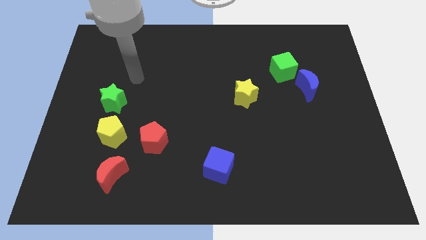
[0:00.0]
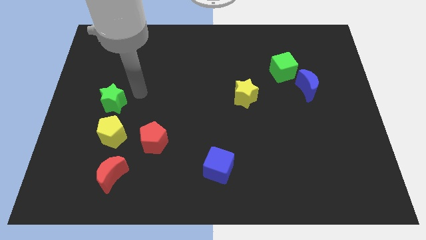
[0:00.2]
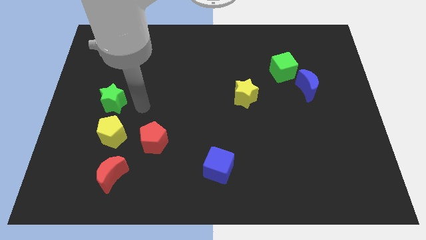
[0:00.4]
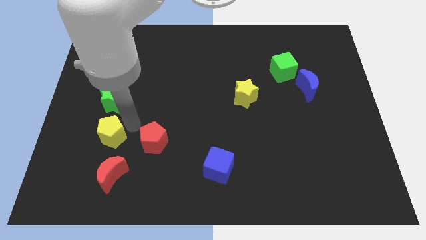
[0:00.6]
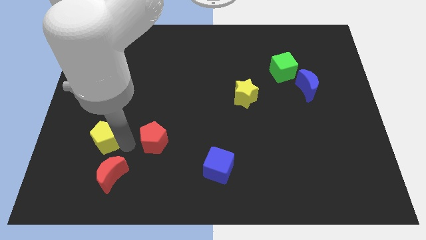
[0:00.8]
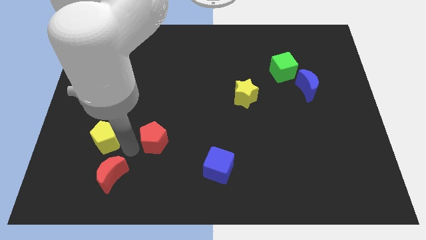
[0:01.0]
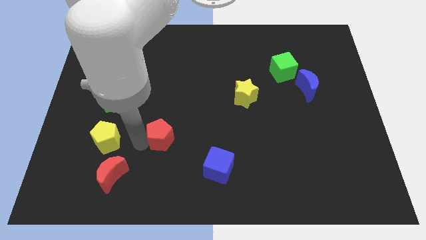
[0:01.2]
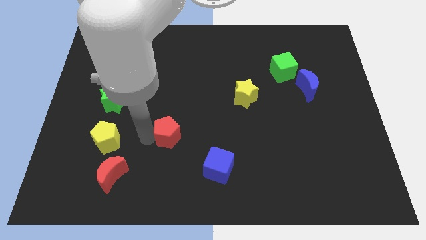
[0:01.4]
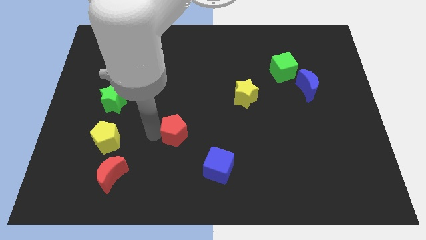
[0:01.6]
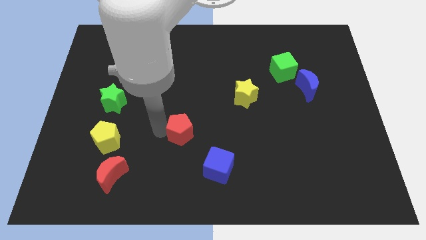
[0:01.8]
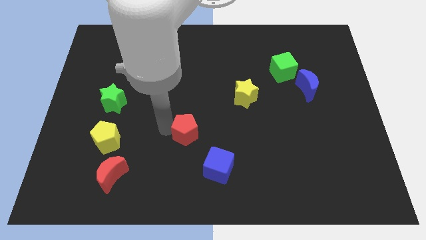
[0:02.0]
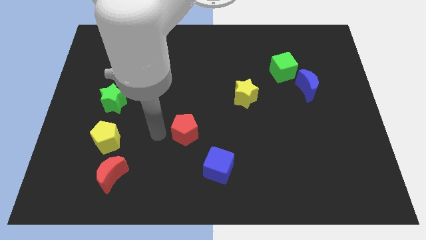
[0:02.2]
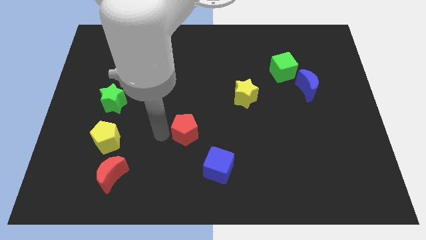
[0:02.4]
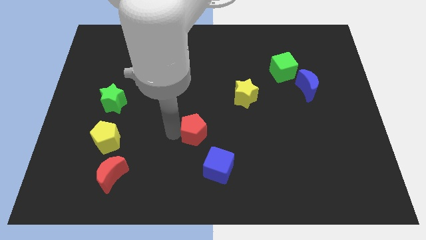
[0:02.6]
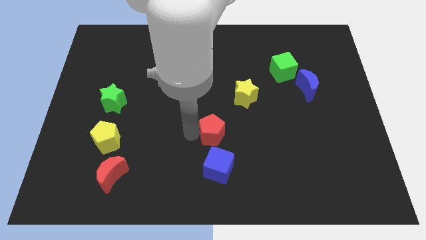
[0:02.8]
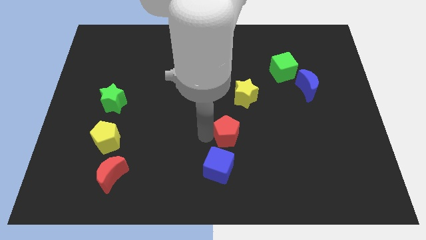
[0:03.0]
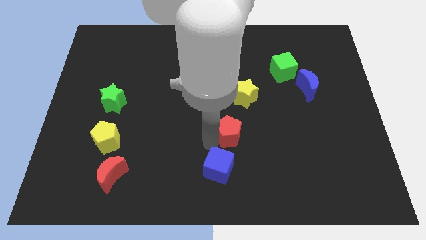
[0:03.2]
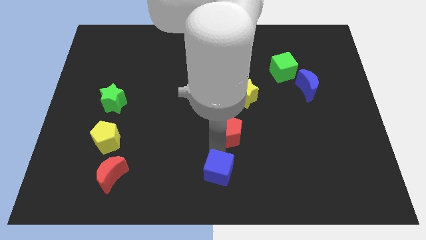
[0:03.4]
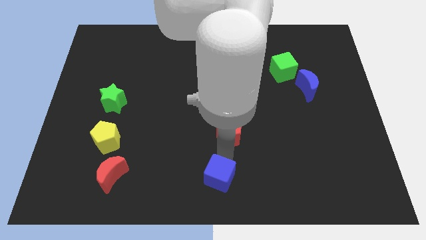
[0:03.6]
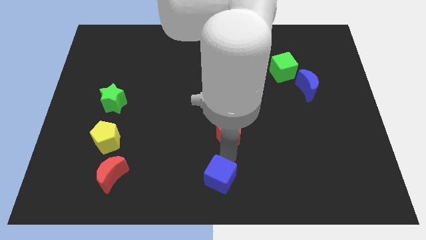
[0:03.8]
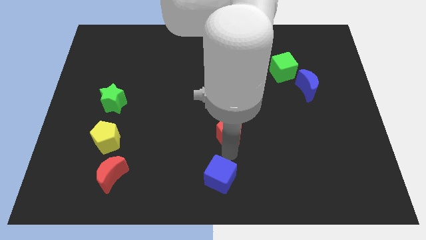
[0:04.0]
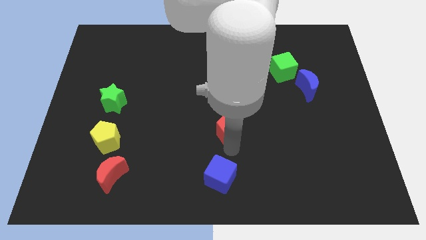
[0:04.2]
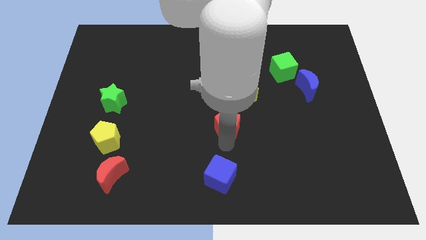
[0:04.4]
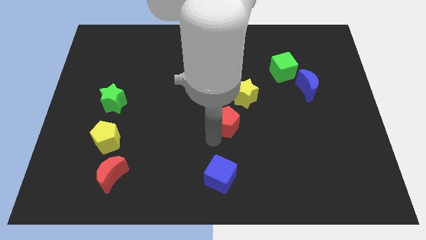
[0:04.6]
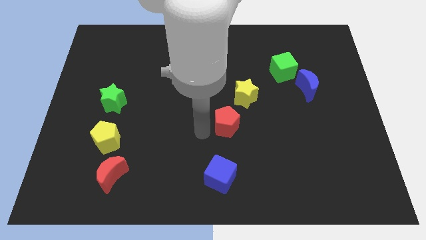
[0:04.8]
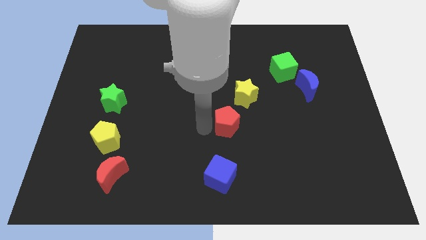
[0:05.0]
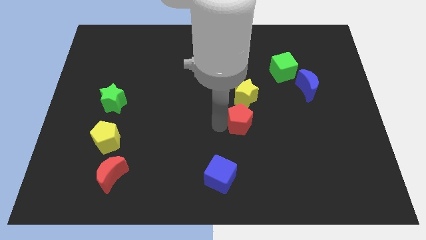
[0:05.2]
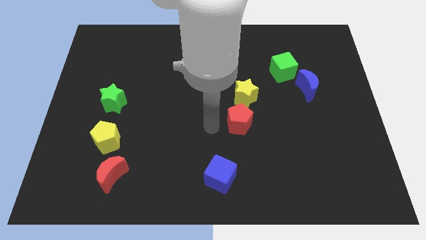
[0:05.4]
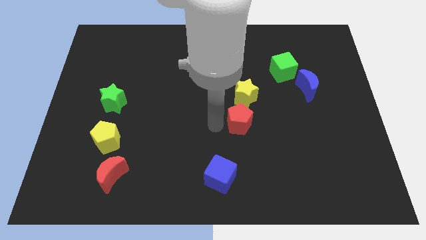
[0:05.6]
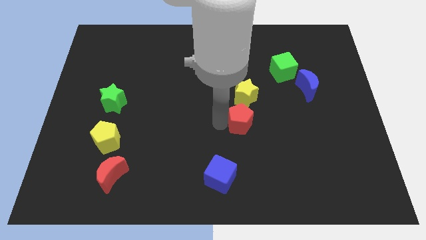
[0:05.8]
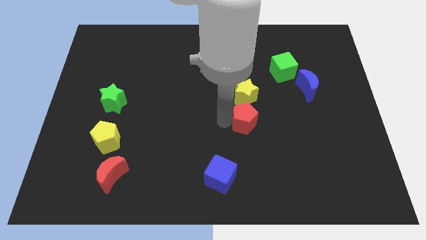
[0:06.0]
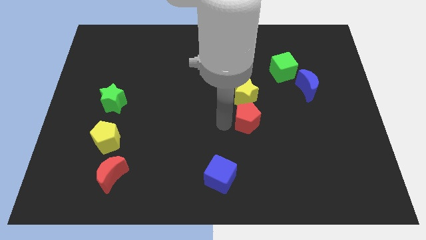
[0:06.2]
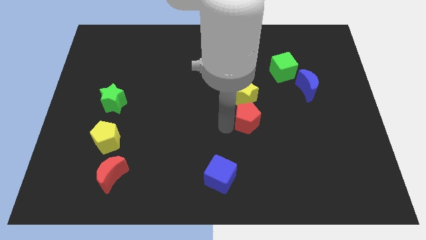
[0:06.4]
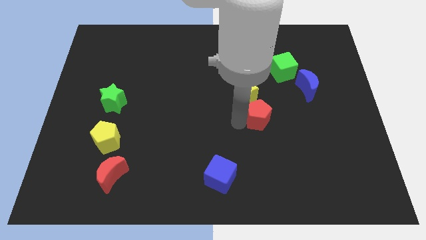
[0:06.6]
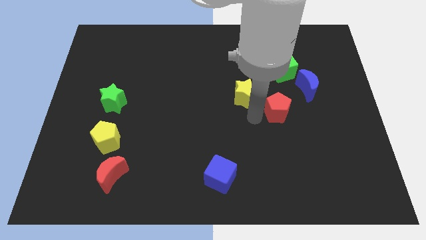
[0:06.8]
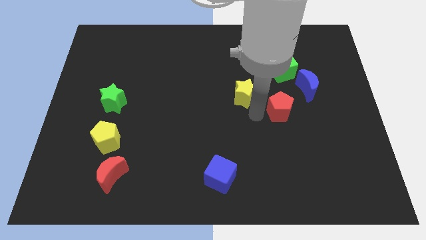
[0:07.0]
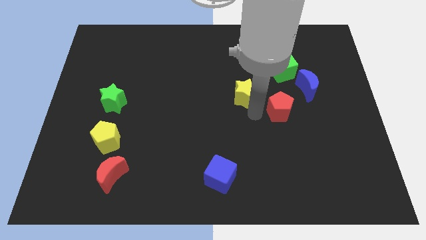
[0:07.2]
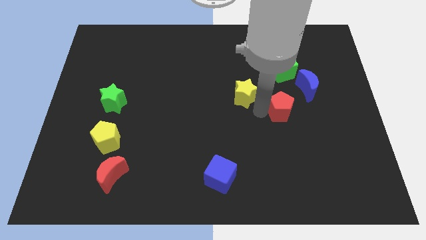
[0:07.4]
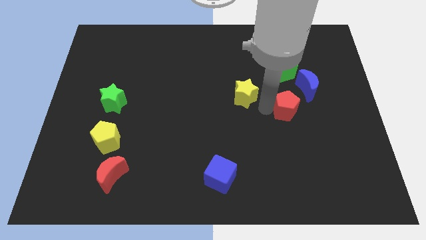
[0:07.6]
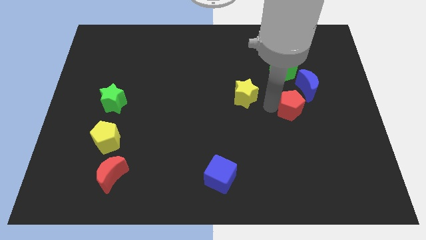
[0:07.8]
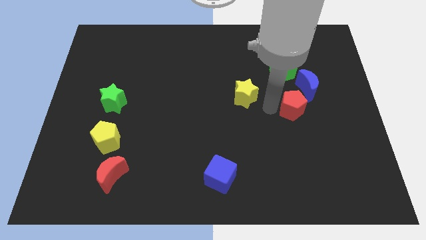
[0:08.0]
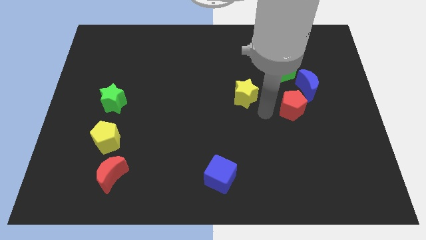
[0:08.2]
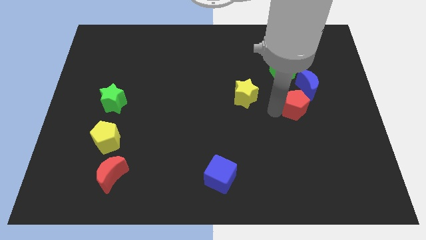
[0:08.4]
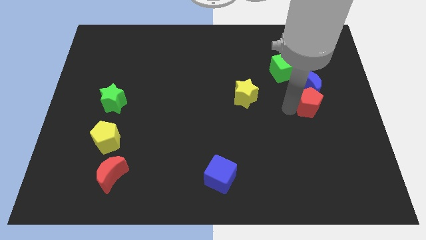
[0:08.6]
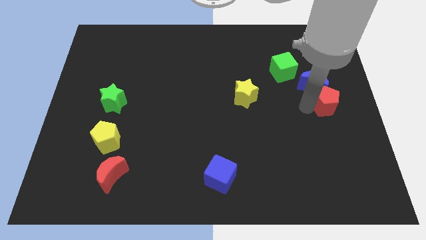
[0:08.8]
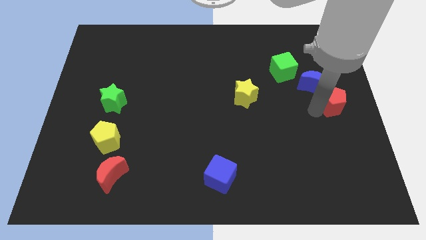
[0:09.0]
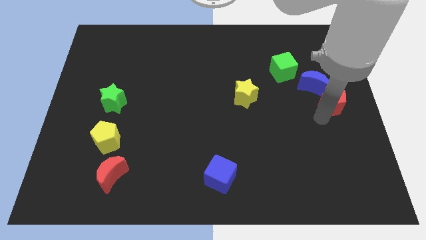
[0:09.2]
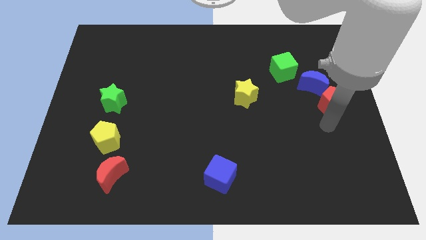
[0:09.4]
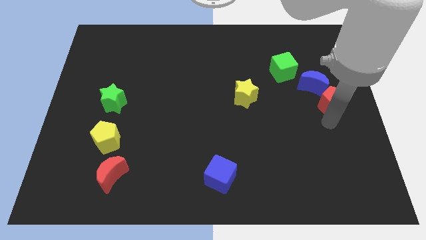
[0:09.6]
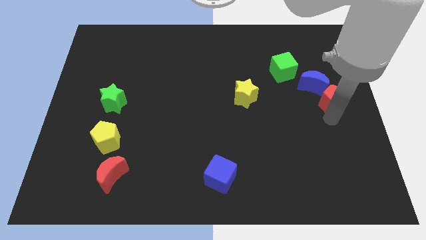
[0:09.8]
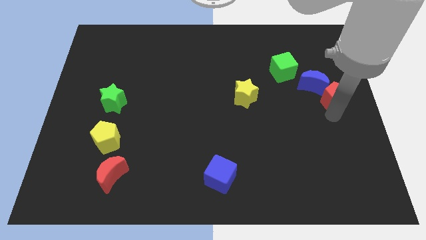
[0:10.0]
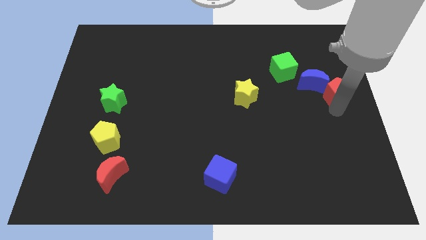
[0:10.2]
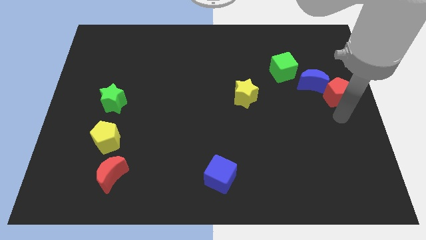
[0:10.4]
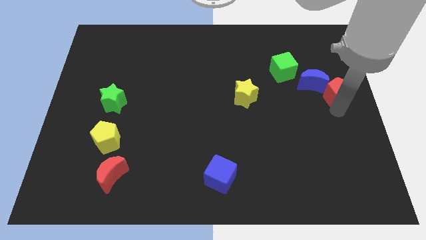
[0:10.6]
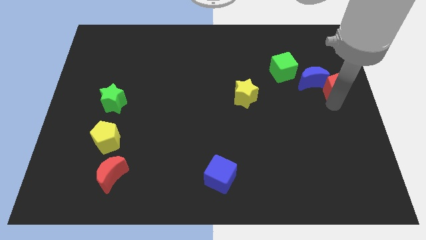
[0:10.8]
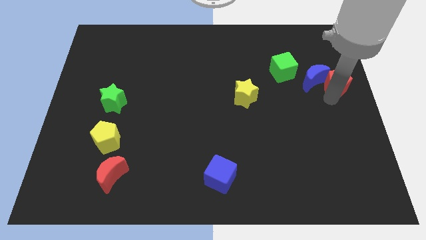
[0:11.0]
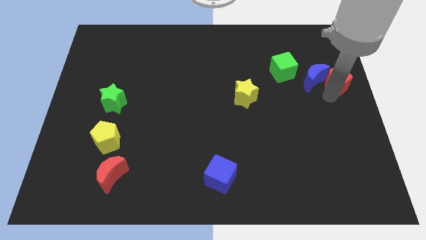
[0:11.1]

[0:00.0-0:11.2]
move the red pentagon to the top right of the blue moon
